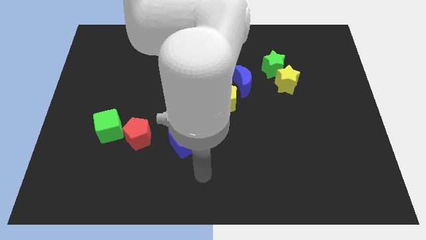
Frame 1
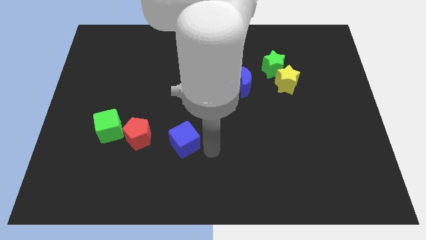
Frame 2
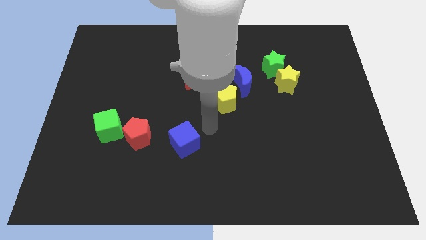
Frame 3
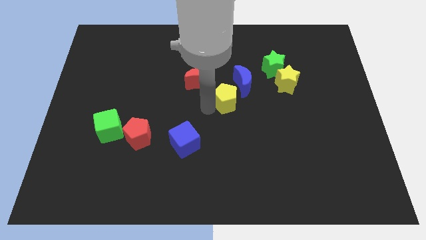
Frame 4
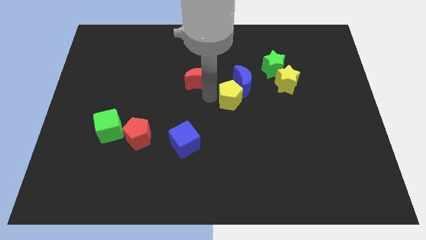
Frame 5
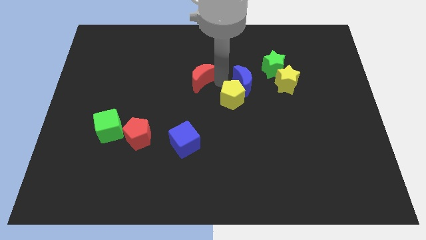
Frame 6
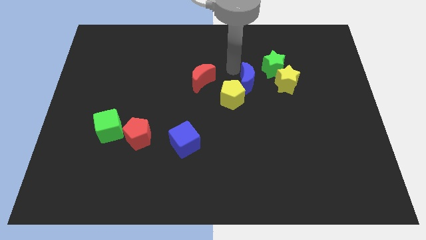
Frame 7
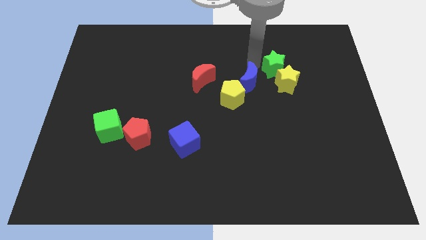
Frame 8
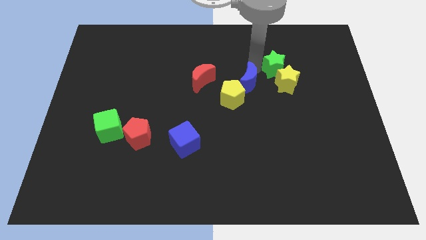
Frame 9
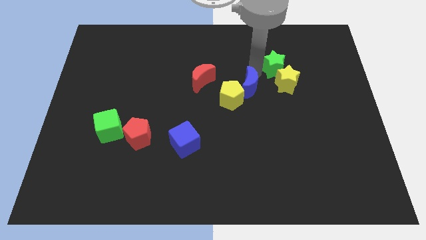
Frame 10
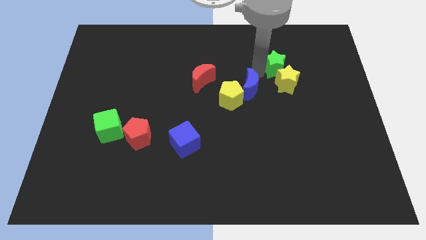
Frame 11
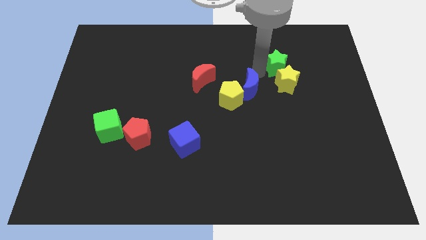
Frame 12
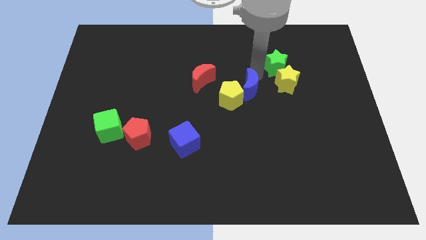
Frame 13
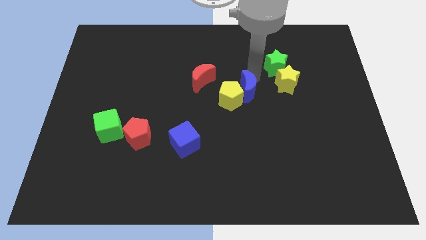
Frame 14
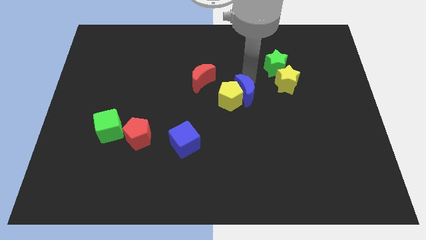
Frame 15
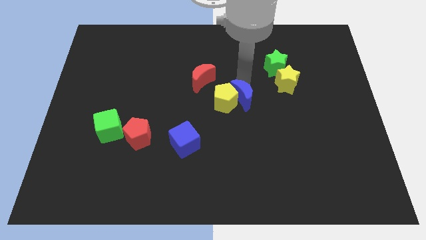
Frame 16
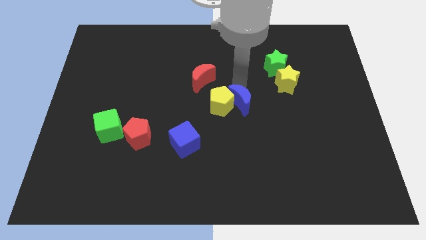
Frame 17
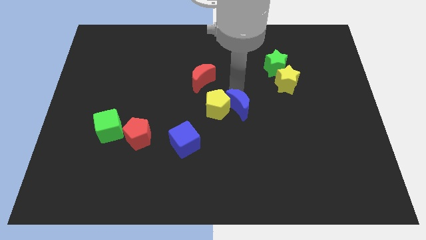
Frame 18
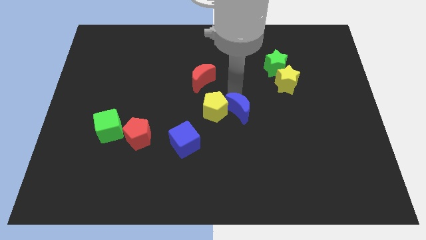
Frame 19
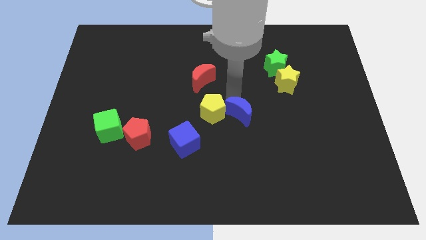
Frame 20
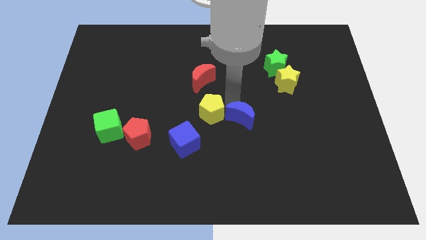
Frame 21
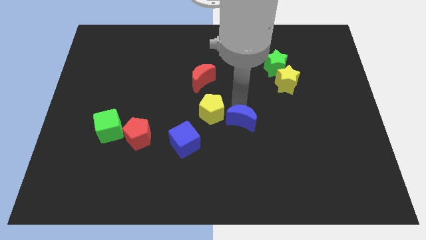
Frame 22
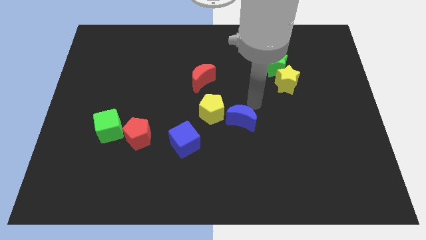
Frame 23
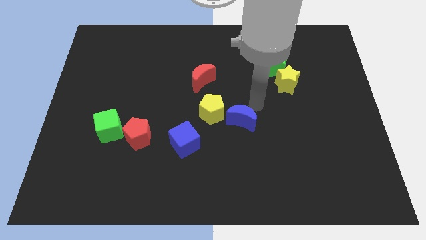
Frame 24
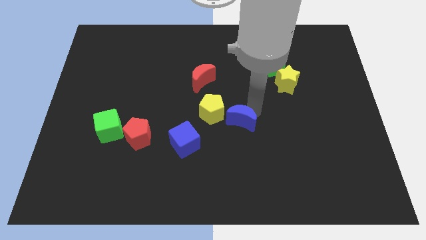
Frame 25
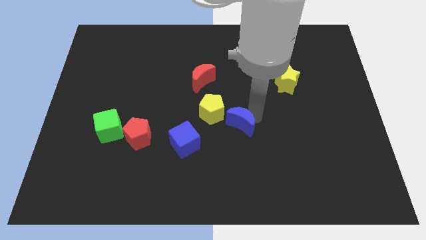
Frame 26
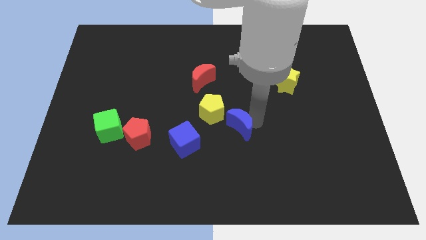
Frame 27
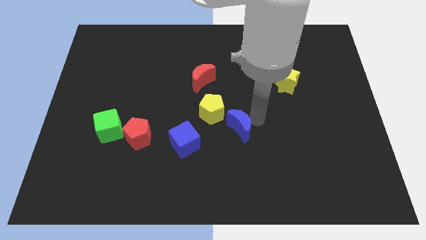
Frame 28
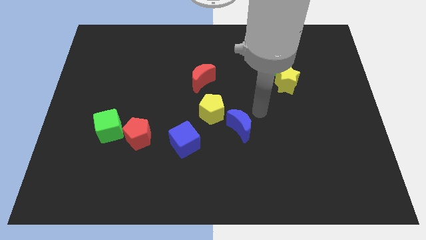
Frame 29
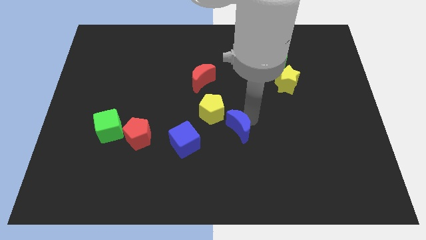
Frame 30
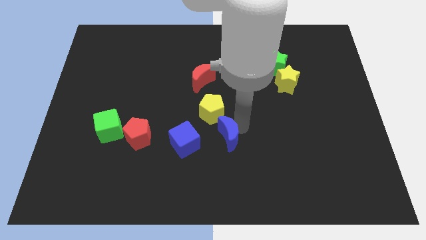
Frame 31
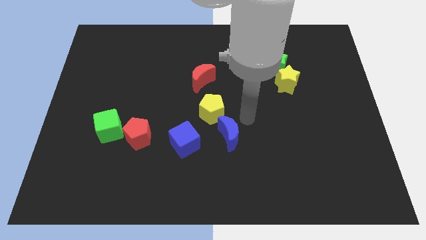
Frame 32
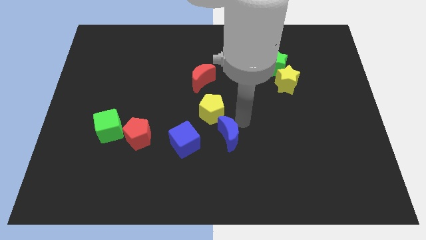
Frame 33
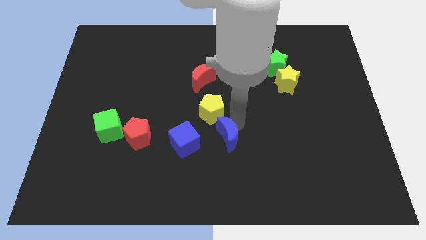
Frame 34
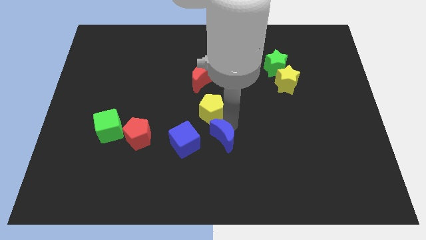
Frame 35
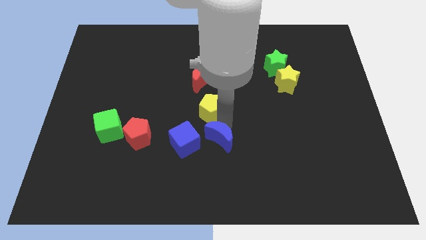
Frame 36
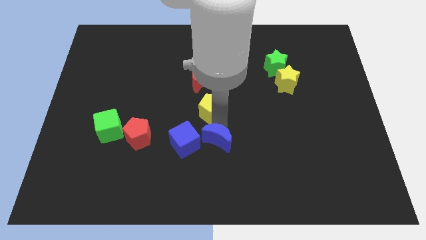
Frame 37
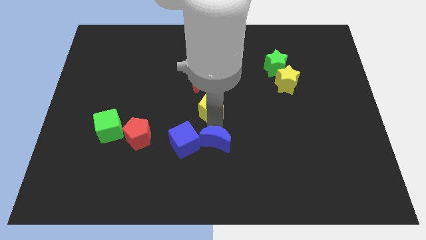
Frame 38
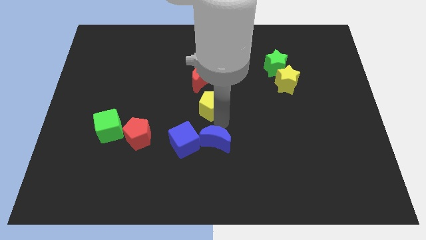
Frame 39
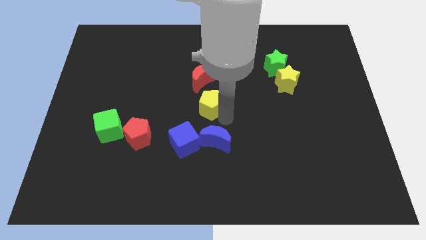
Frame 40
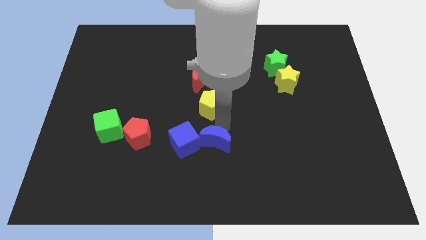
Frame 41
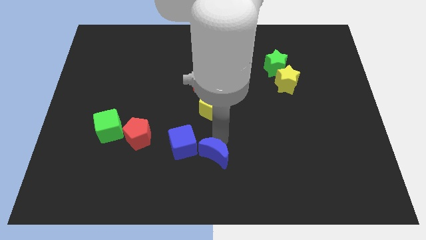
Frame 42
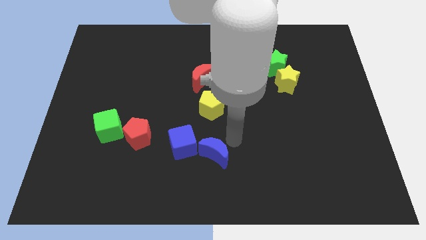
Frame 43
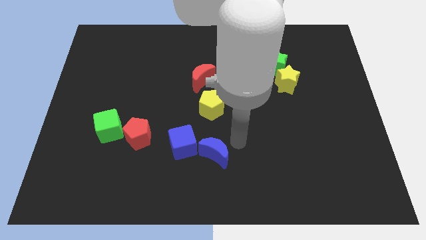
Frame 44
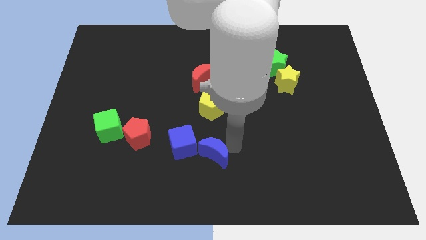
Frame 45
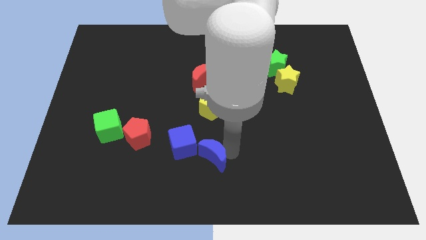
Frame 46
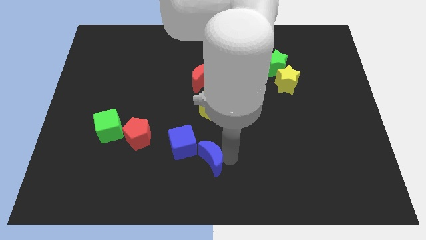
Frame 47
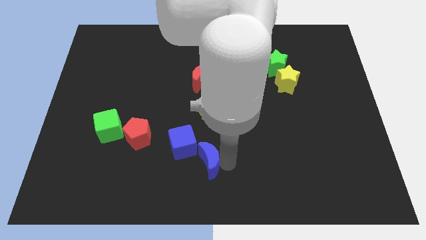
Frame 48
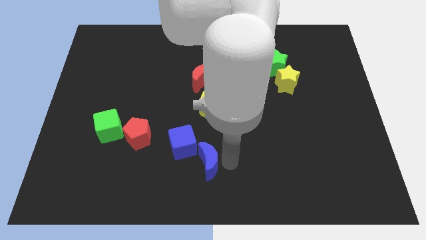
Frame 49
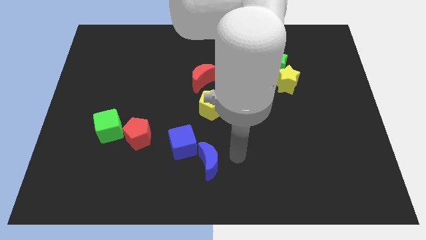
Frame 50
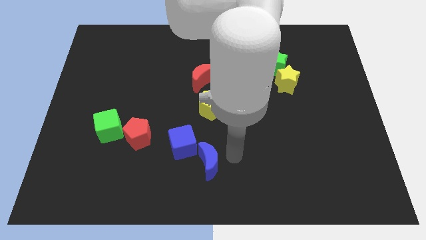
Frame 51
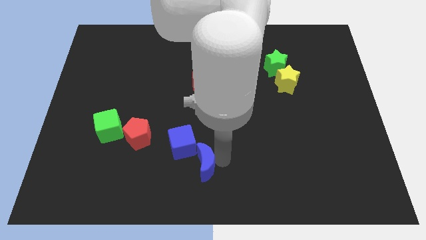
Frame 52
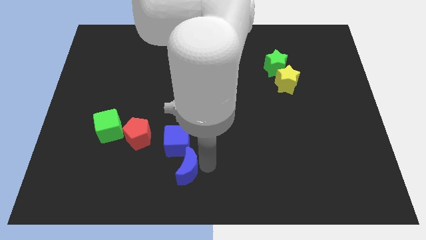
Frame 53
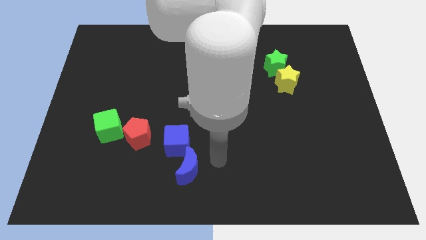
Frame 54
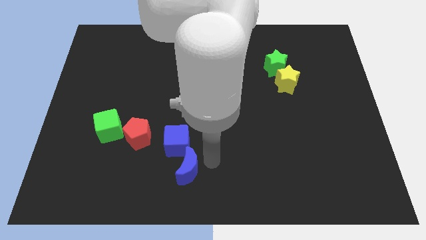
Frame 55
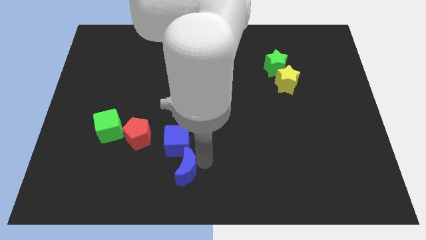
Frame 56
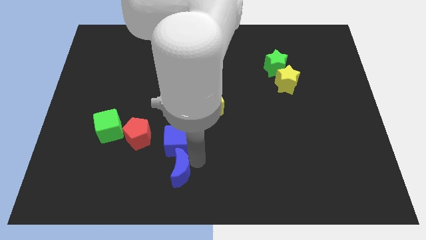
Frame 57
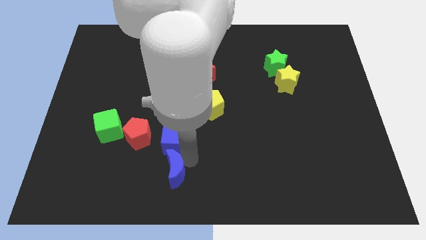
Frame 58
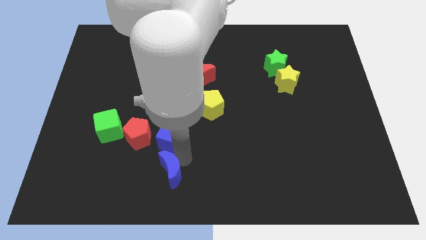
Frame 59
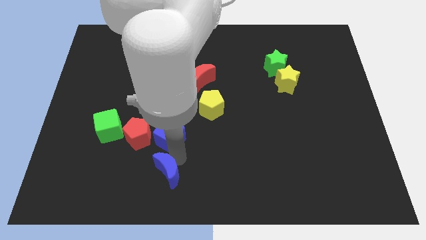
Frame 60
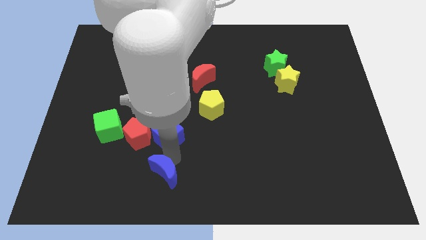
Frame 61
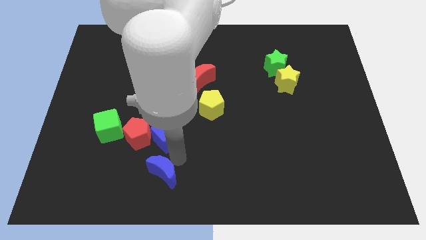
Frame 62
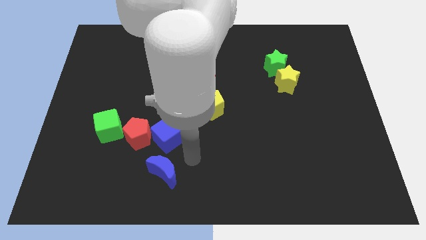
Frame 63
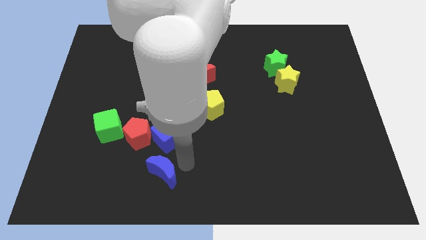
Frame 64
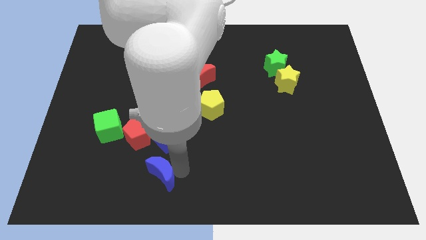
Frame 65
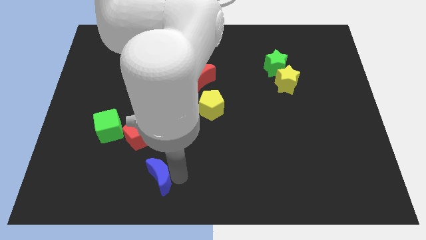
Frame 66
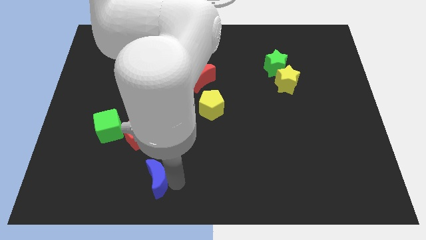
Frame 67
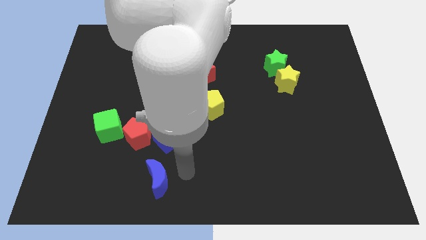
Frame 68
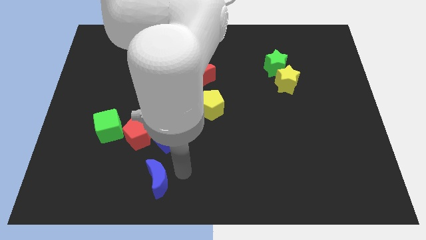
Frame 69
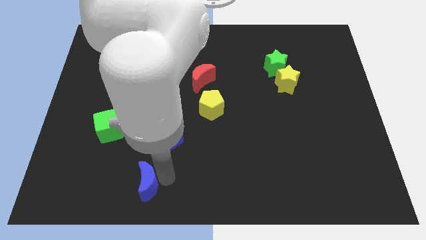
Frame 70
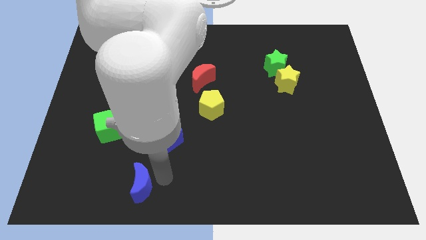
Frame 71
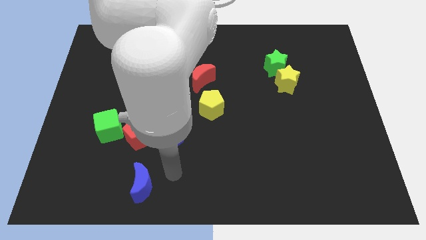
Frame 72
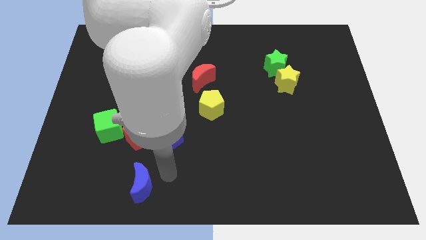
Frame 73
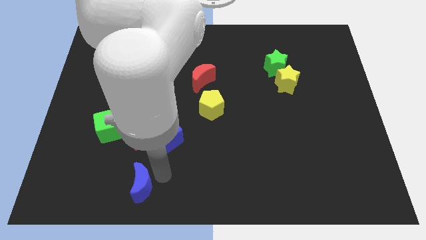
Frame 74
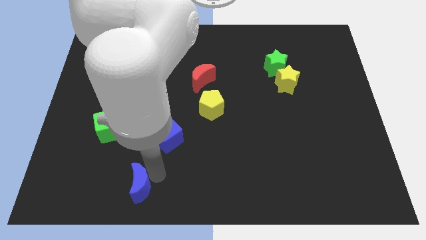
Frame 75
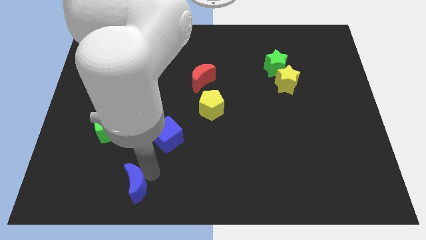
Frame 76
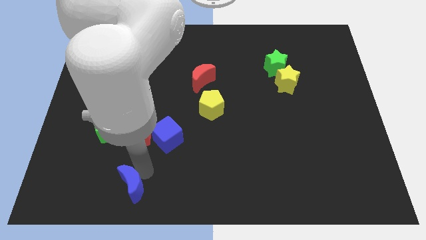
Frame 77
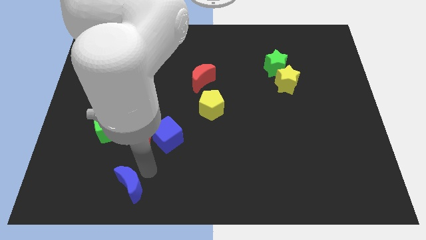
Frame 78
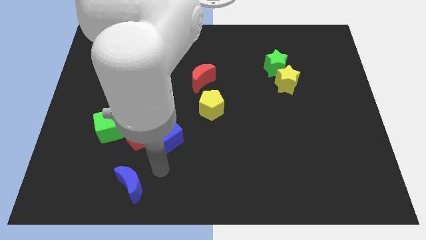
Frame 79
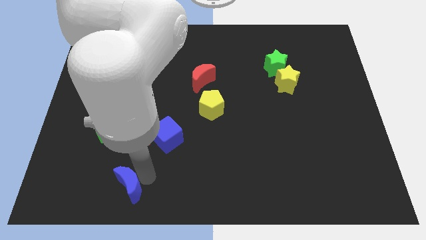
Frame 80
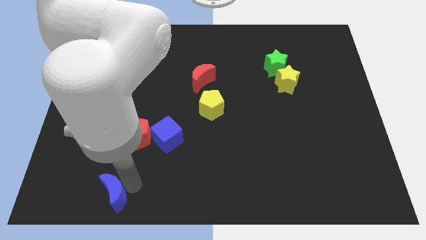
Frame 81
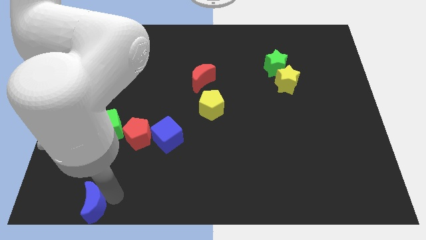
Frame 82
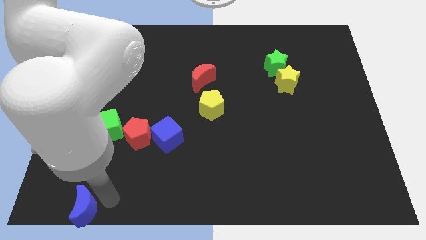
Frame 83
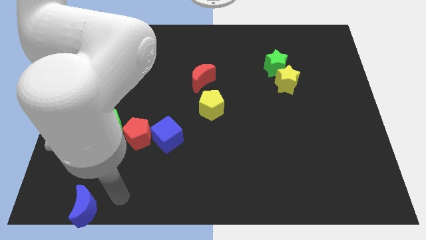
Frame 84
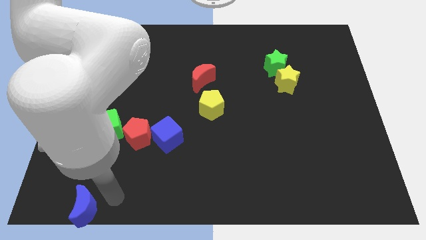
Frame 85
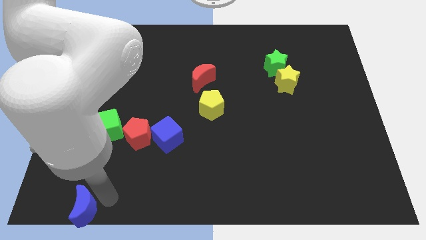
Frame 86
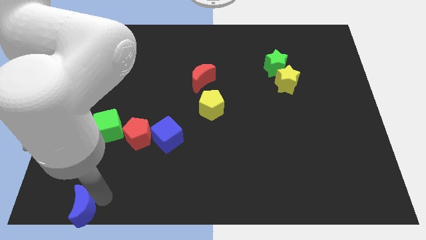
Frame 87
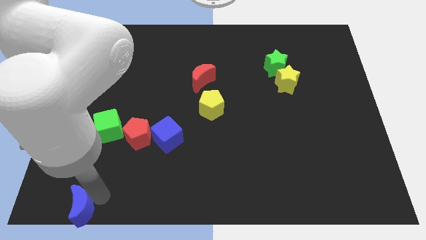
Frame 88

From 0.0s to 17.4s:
push the blue moon to the bottom left
